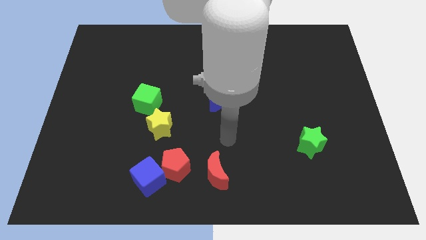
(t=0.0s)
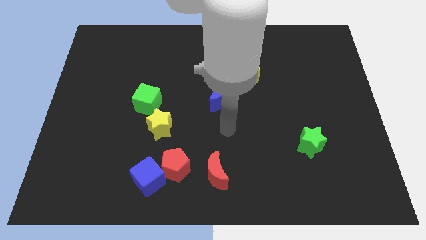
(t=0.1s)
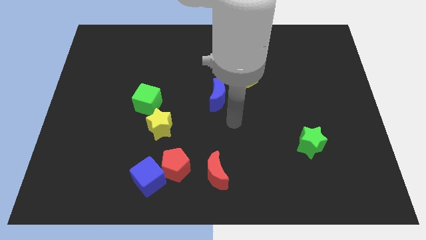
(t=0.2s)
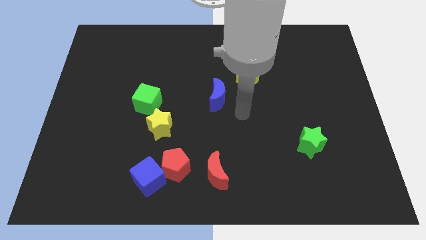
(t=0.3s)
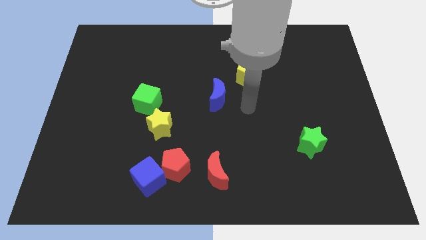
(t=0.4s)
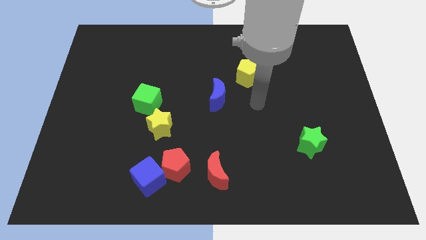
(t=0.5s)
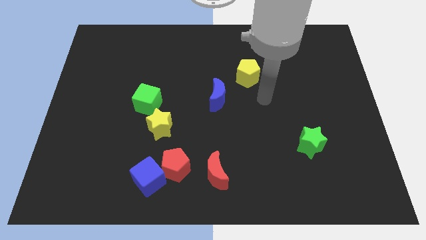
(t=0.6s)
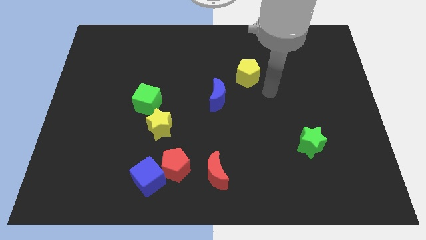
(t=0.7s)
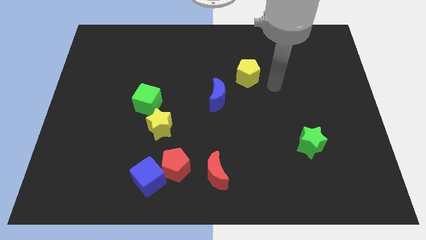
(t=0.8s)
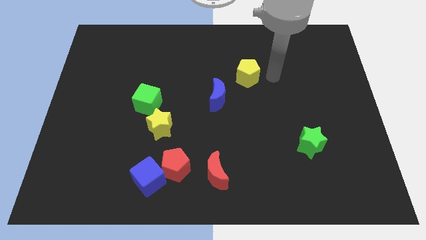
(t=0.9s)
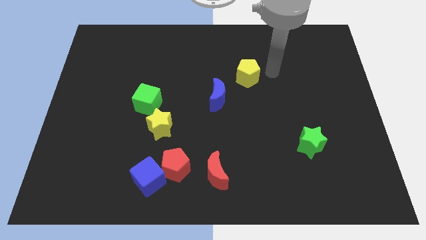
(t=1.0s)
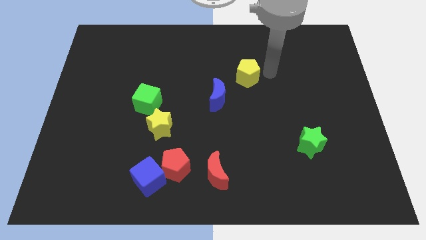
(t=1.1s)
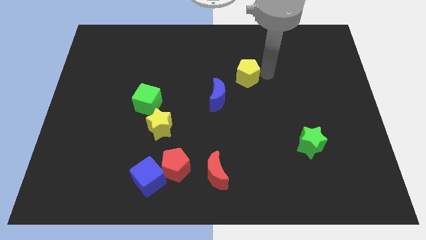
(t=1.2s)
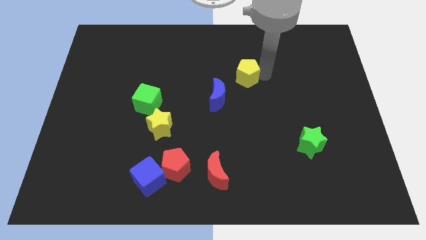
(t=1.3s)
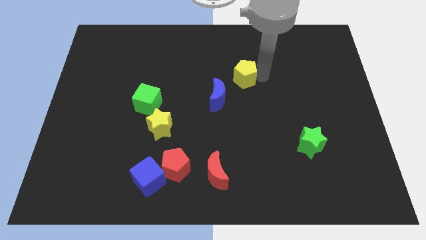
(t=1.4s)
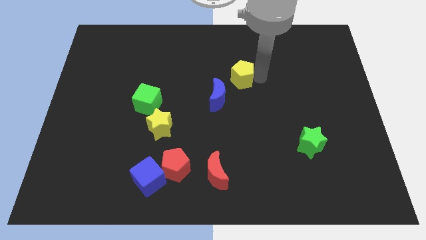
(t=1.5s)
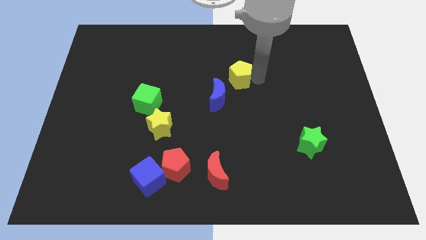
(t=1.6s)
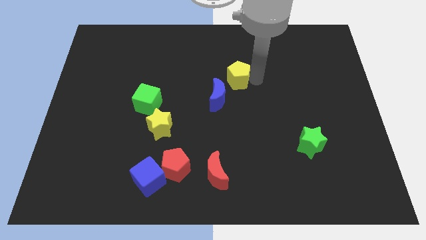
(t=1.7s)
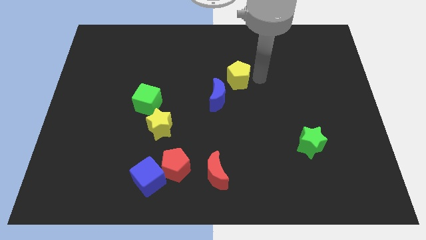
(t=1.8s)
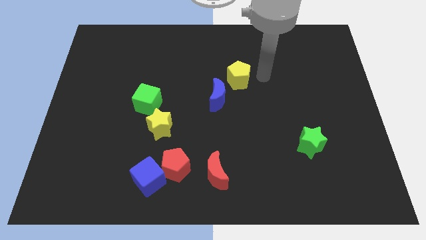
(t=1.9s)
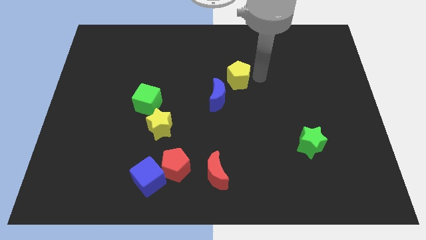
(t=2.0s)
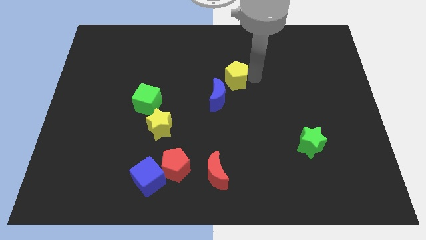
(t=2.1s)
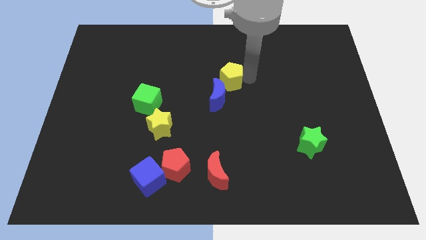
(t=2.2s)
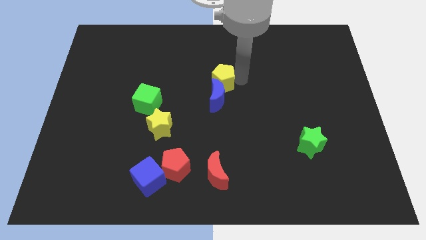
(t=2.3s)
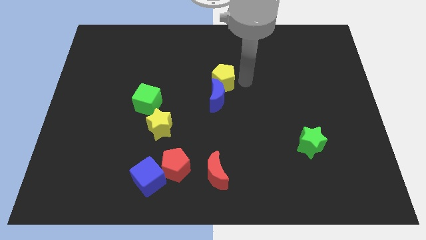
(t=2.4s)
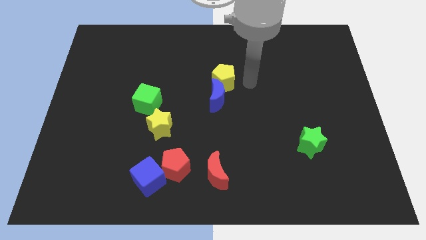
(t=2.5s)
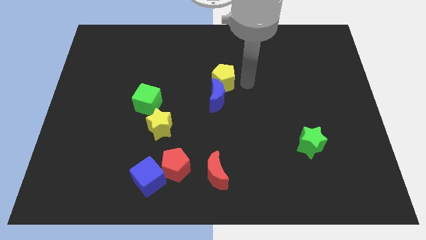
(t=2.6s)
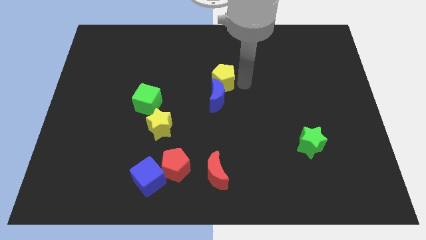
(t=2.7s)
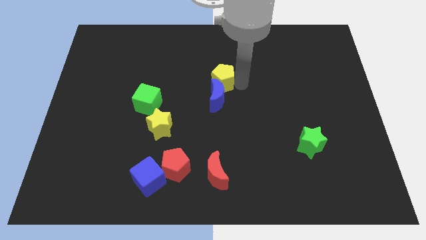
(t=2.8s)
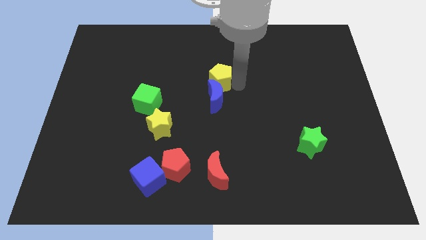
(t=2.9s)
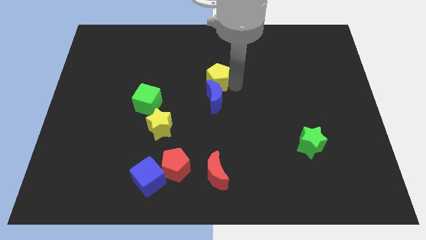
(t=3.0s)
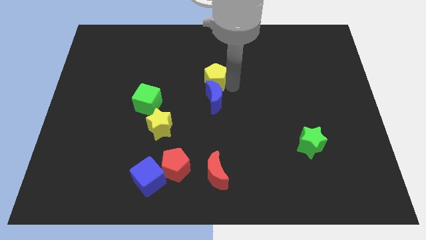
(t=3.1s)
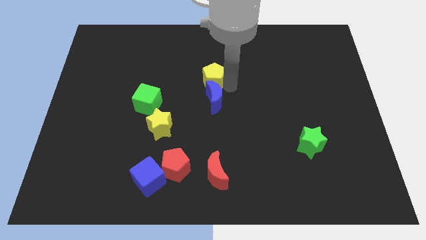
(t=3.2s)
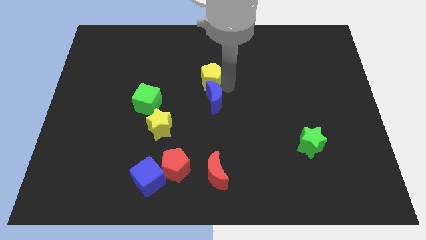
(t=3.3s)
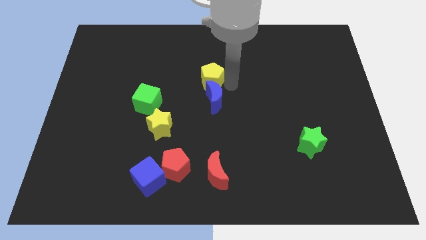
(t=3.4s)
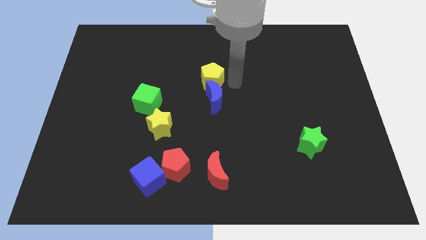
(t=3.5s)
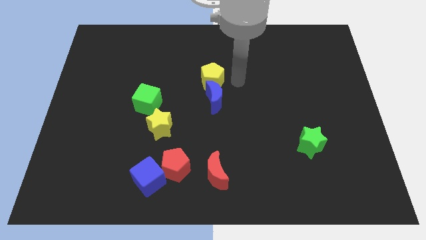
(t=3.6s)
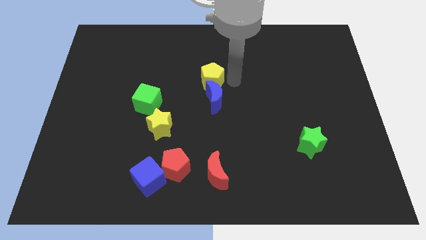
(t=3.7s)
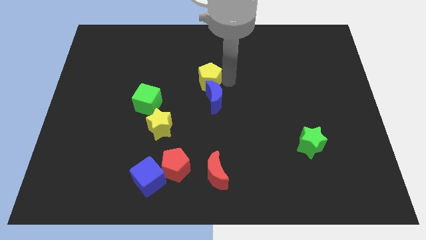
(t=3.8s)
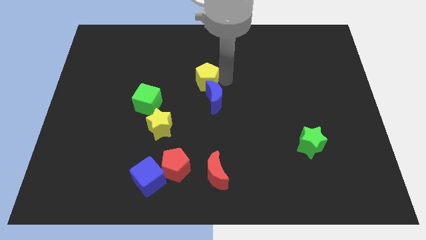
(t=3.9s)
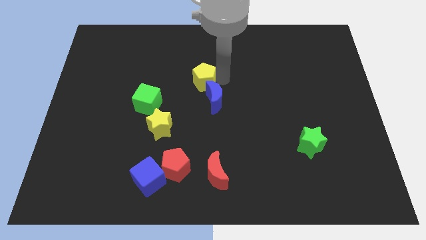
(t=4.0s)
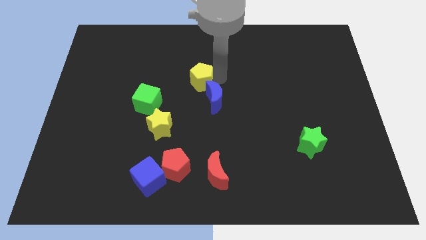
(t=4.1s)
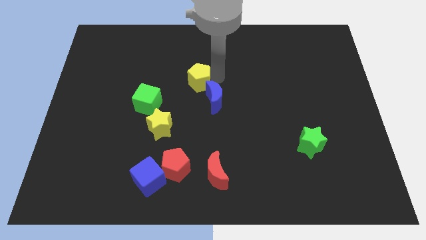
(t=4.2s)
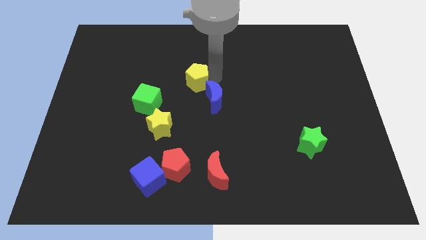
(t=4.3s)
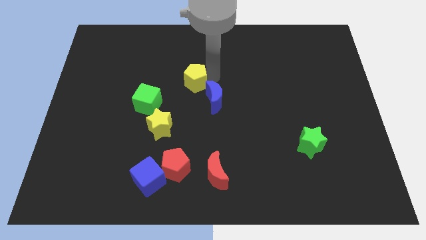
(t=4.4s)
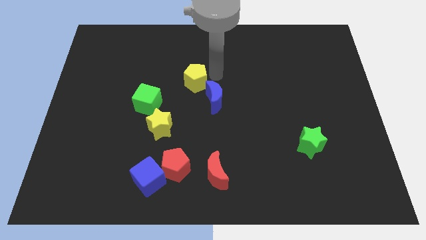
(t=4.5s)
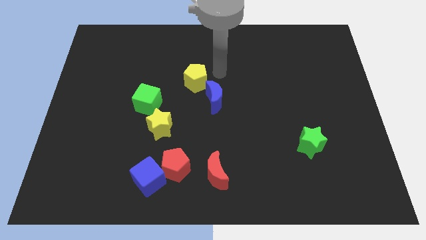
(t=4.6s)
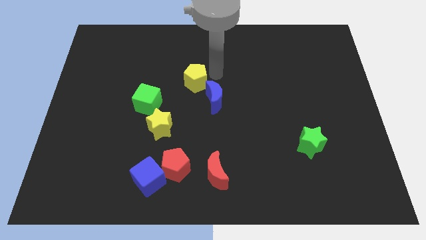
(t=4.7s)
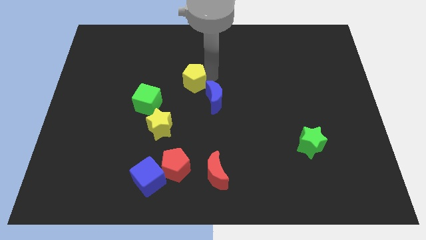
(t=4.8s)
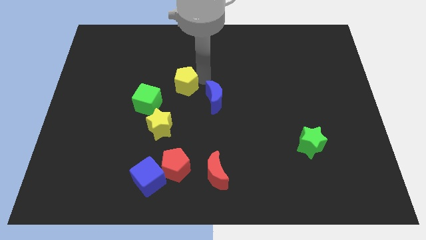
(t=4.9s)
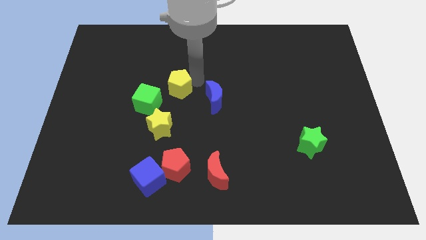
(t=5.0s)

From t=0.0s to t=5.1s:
move the yellow pentagon to the top side of the yellow star

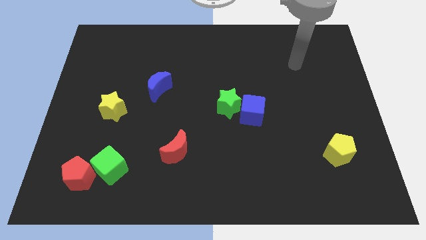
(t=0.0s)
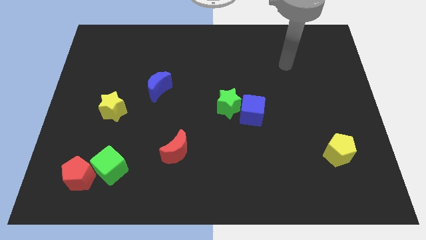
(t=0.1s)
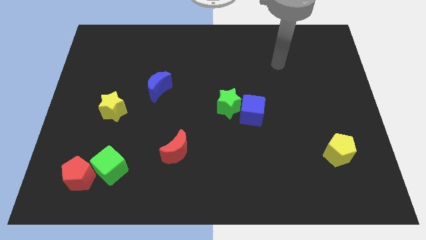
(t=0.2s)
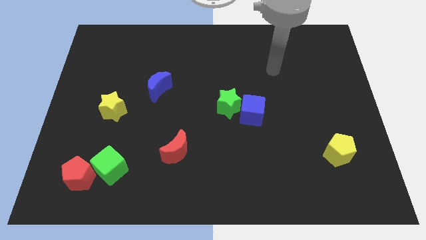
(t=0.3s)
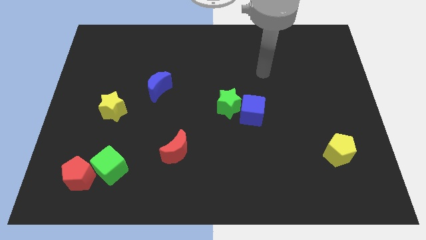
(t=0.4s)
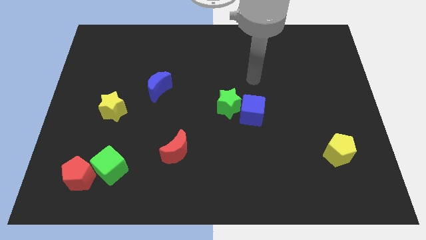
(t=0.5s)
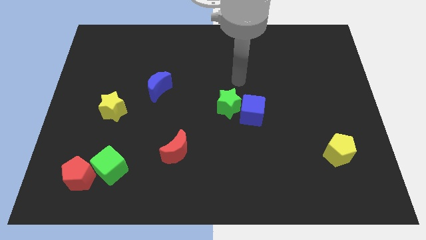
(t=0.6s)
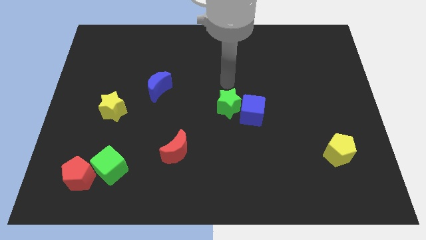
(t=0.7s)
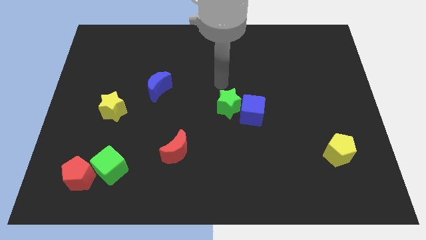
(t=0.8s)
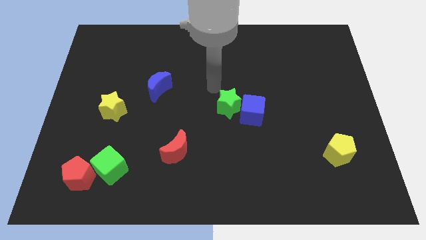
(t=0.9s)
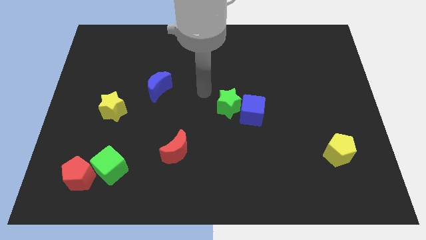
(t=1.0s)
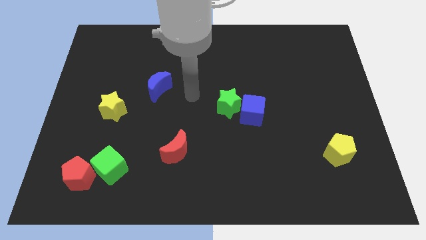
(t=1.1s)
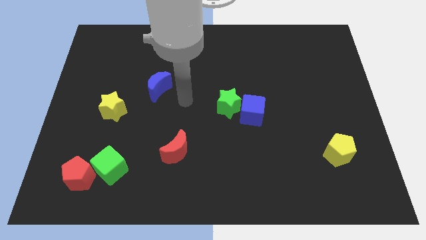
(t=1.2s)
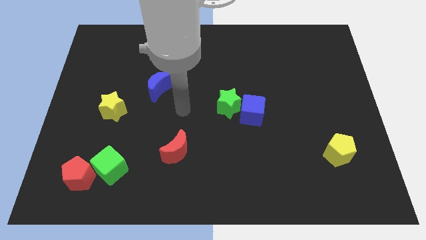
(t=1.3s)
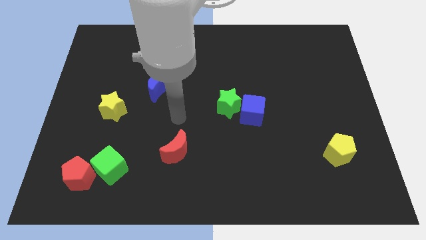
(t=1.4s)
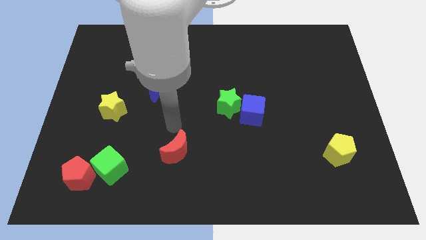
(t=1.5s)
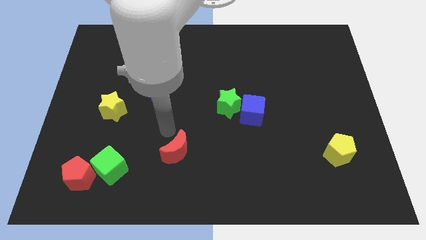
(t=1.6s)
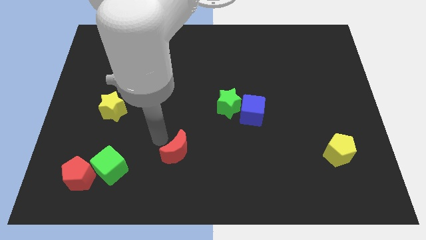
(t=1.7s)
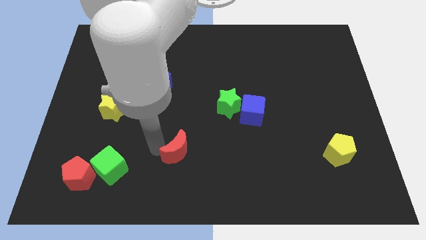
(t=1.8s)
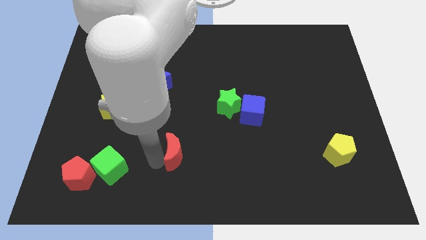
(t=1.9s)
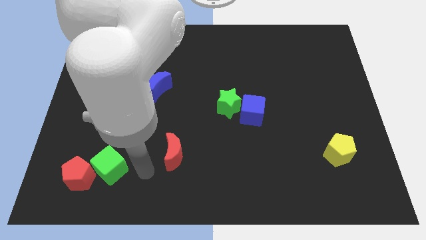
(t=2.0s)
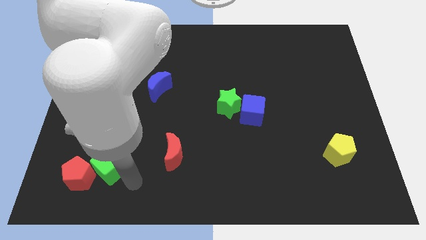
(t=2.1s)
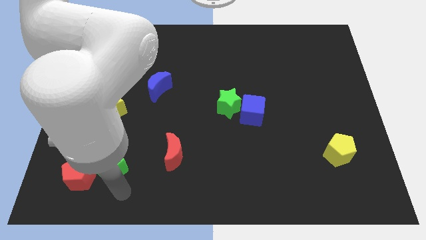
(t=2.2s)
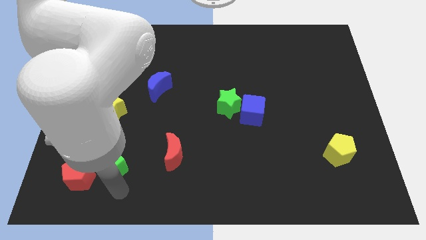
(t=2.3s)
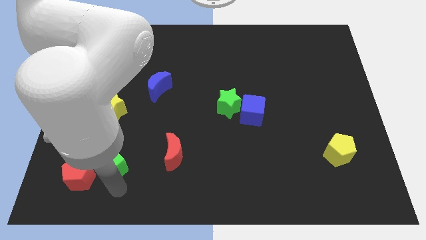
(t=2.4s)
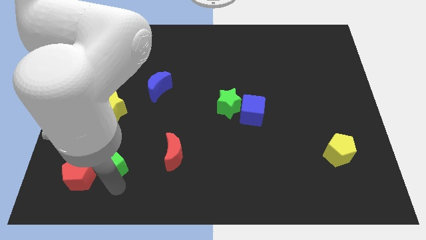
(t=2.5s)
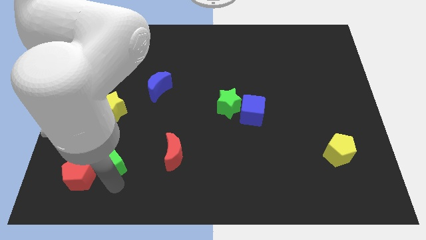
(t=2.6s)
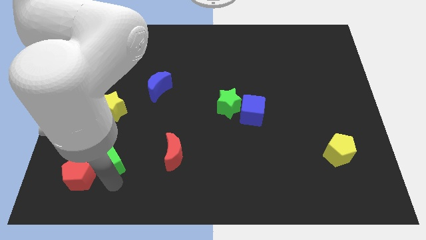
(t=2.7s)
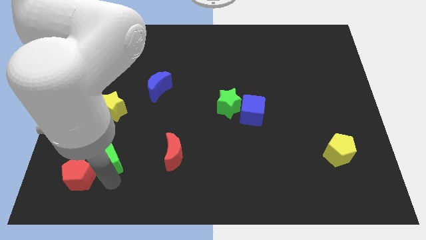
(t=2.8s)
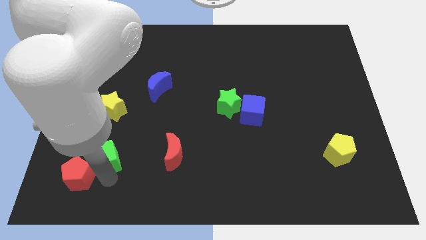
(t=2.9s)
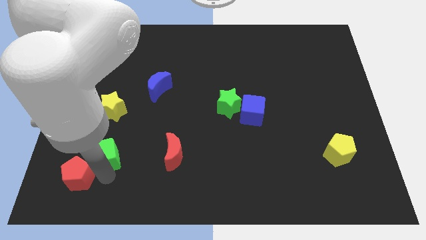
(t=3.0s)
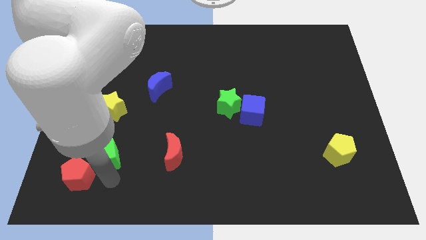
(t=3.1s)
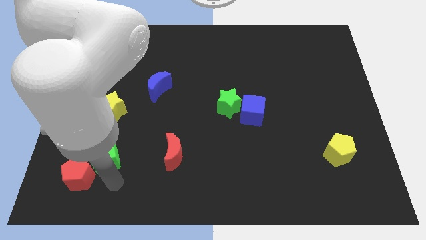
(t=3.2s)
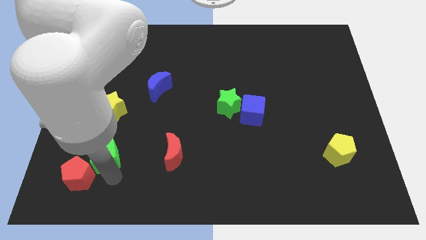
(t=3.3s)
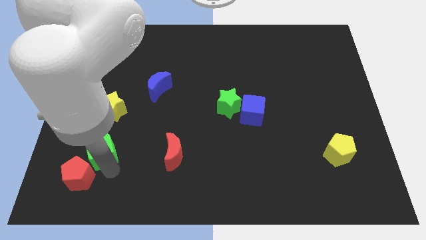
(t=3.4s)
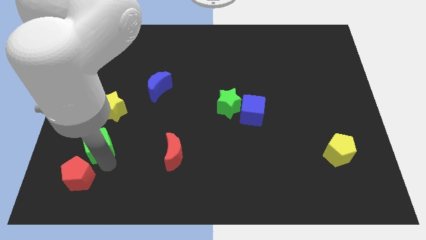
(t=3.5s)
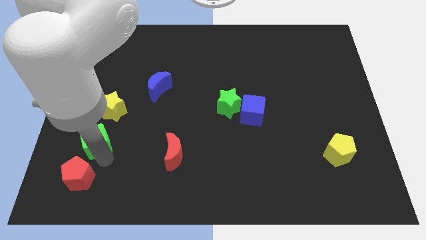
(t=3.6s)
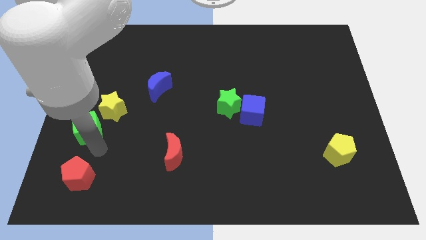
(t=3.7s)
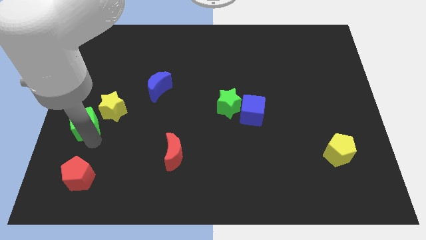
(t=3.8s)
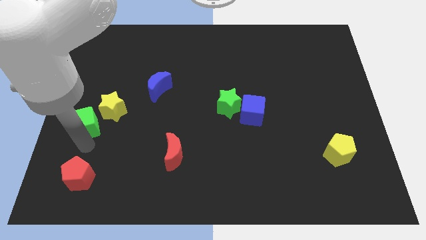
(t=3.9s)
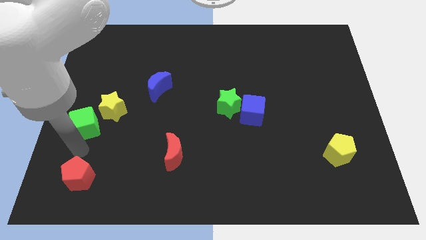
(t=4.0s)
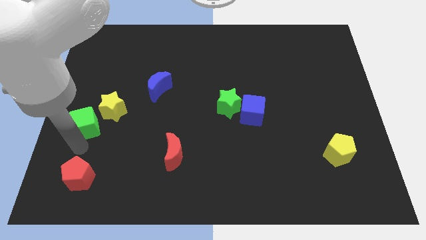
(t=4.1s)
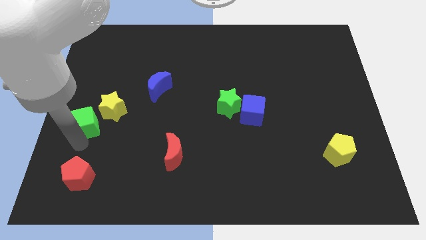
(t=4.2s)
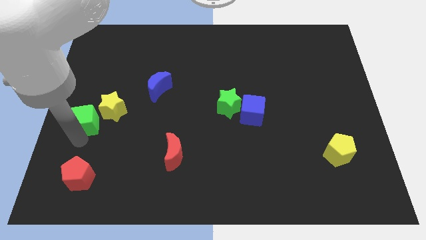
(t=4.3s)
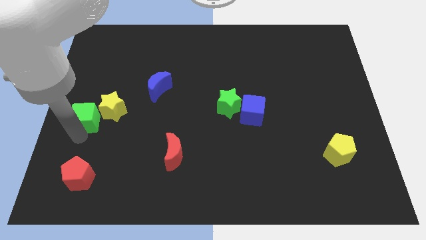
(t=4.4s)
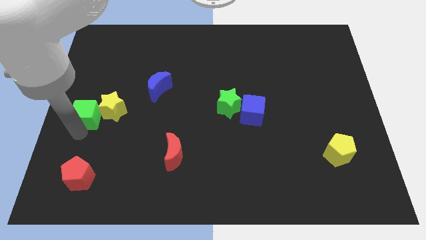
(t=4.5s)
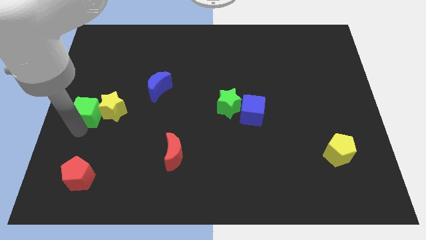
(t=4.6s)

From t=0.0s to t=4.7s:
put the green cube to the top left of the yellow star
